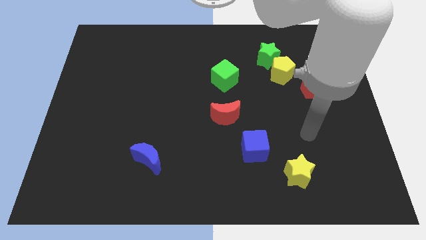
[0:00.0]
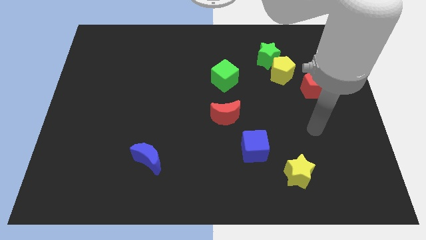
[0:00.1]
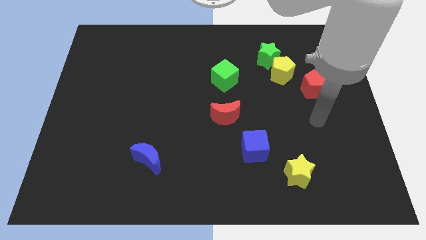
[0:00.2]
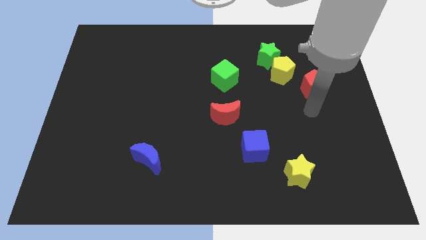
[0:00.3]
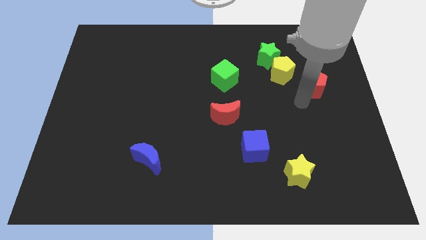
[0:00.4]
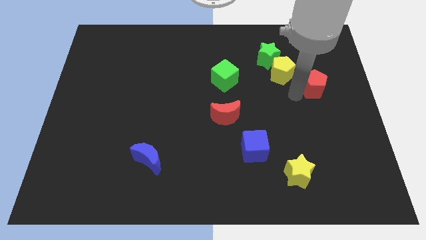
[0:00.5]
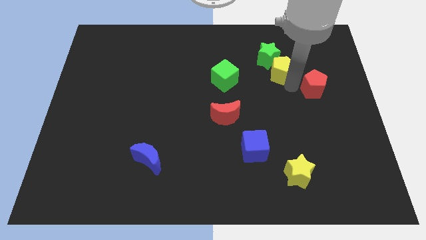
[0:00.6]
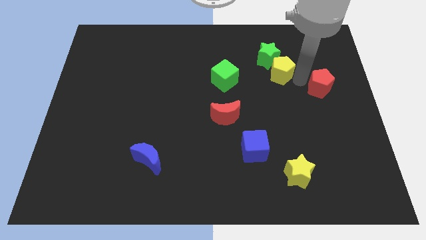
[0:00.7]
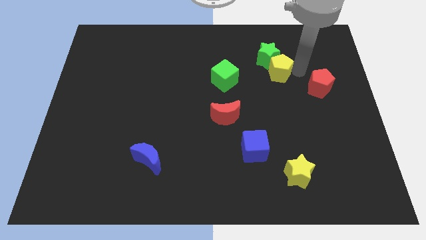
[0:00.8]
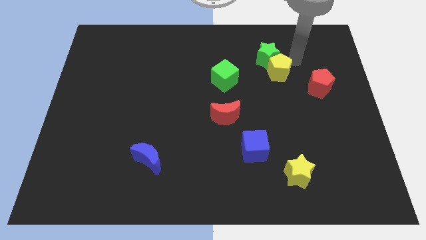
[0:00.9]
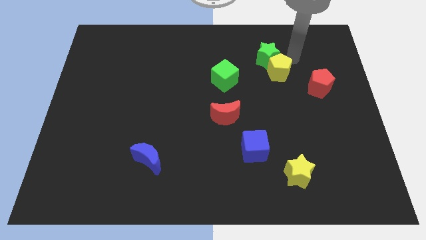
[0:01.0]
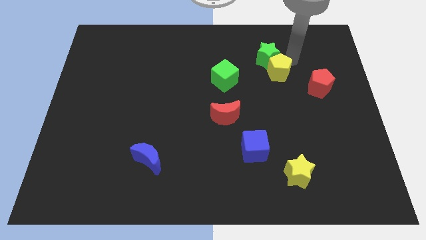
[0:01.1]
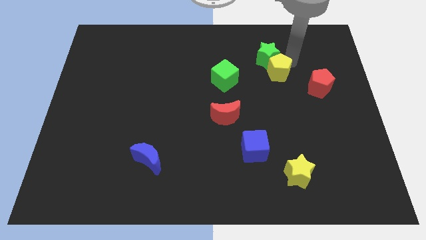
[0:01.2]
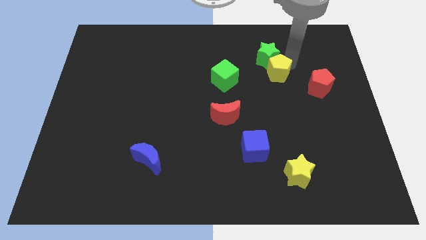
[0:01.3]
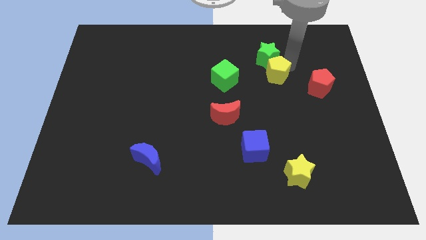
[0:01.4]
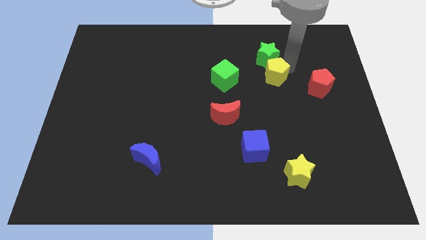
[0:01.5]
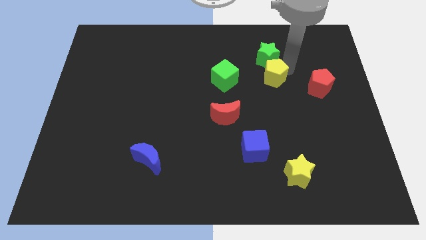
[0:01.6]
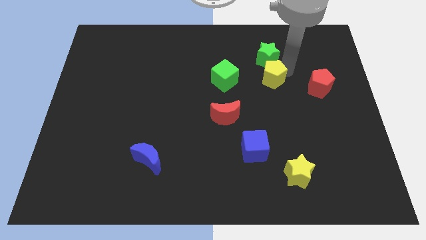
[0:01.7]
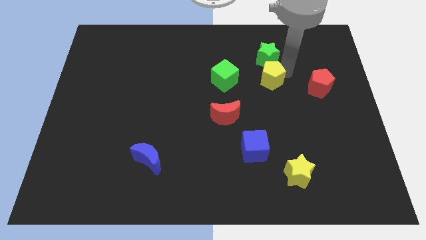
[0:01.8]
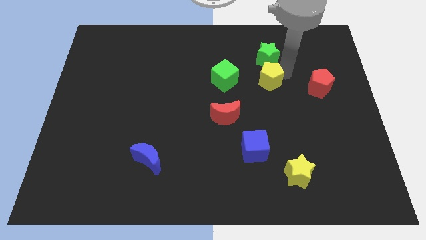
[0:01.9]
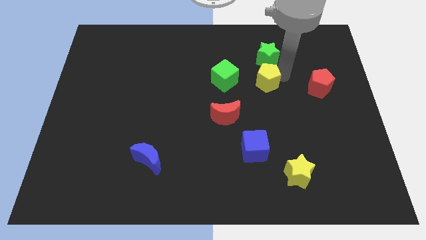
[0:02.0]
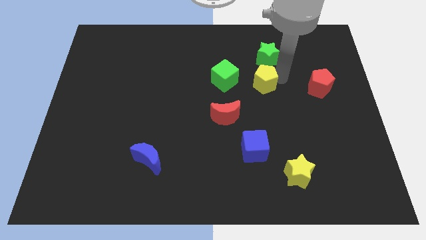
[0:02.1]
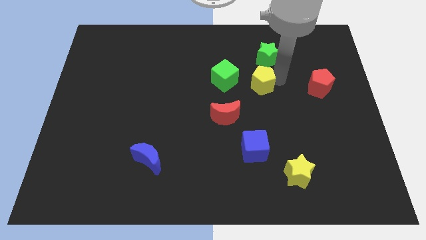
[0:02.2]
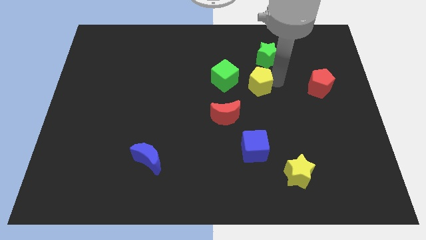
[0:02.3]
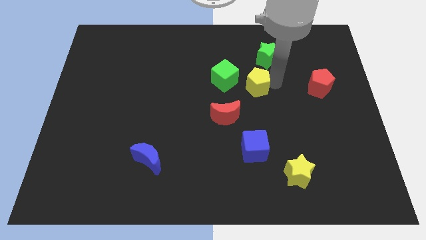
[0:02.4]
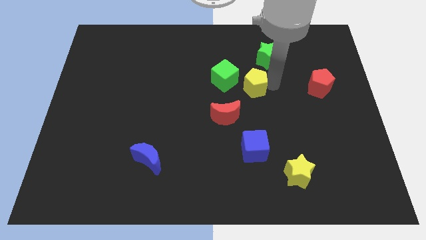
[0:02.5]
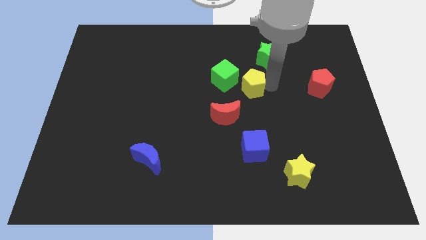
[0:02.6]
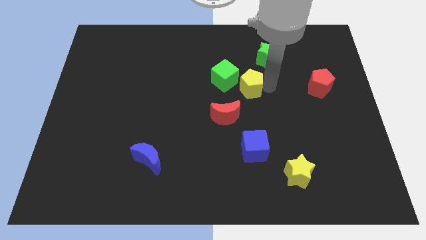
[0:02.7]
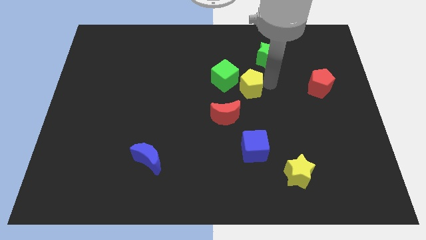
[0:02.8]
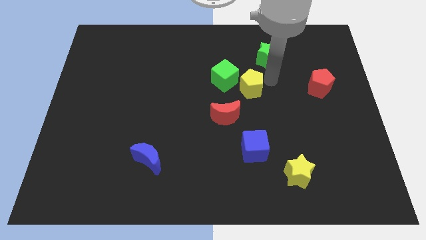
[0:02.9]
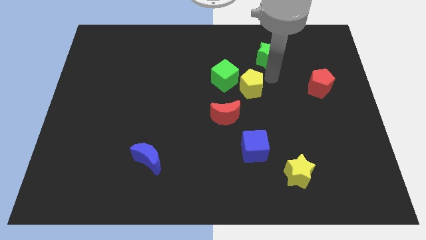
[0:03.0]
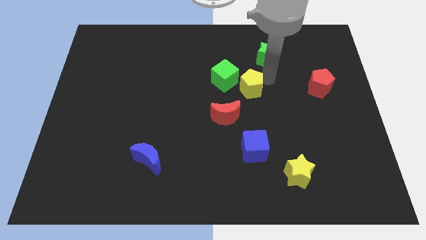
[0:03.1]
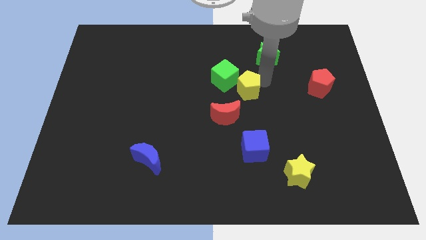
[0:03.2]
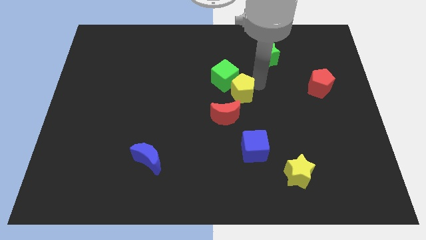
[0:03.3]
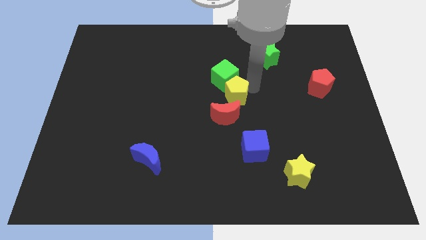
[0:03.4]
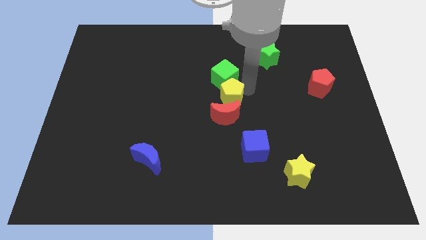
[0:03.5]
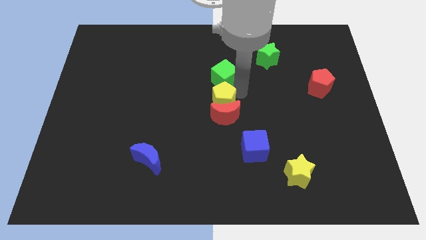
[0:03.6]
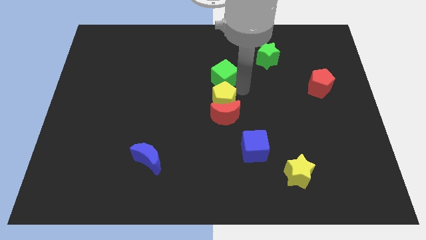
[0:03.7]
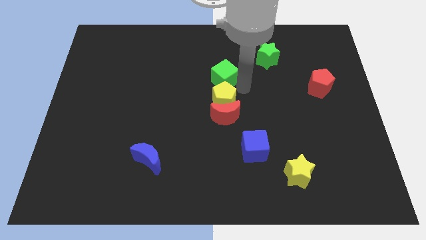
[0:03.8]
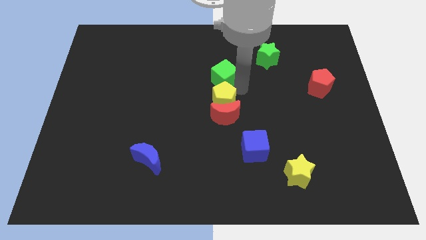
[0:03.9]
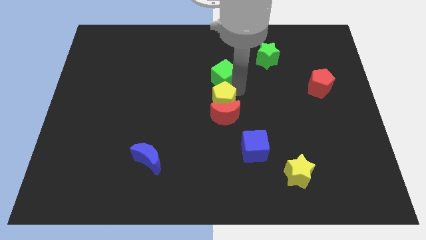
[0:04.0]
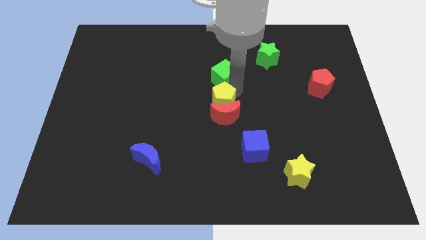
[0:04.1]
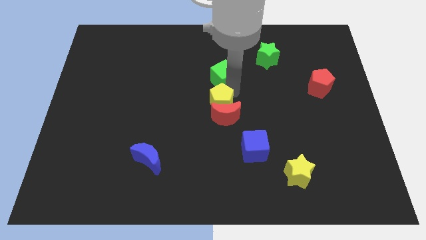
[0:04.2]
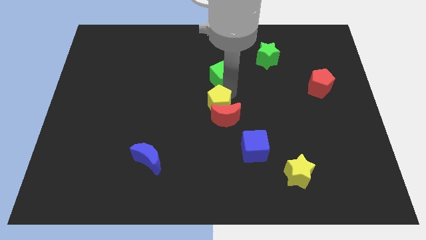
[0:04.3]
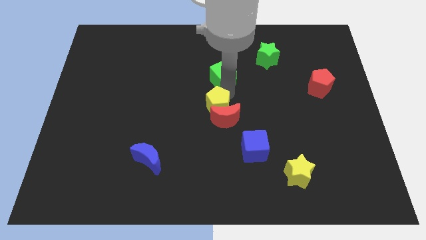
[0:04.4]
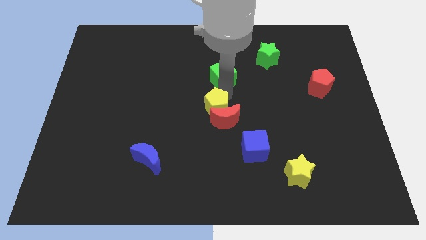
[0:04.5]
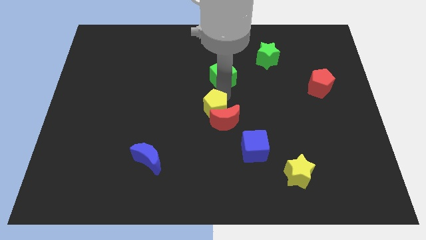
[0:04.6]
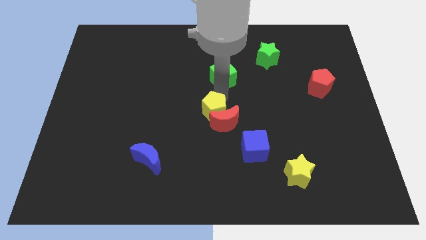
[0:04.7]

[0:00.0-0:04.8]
push the yellow pentagon down and left diagonally

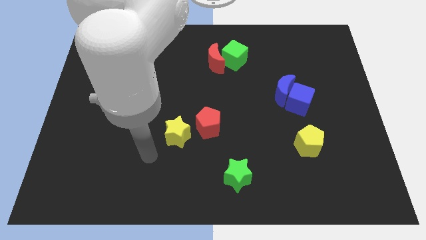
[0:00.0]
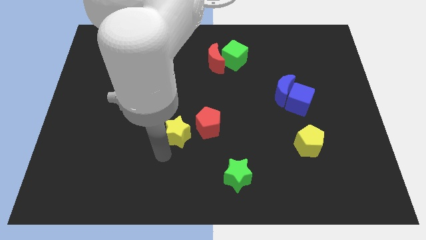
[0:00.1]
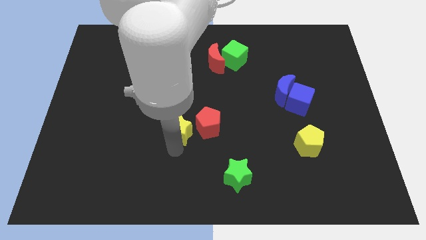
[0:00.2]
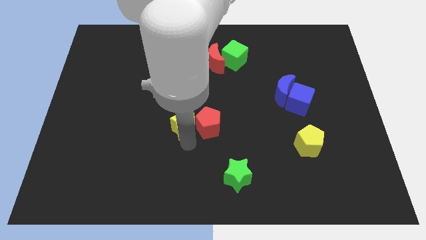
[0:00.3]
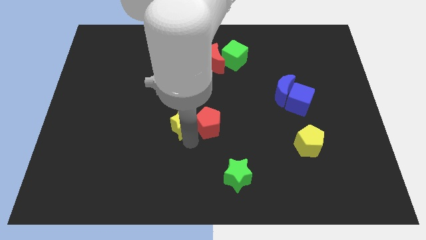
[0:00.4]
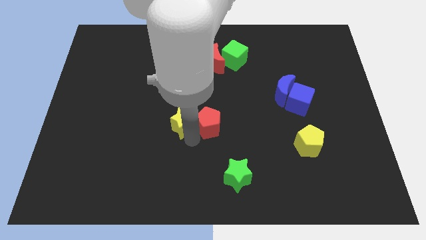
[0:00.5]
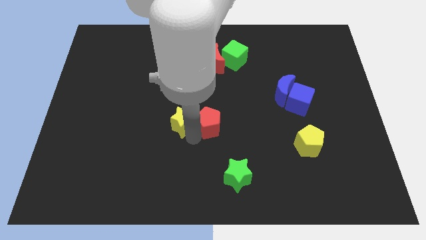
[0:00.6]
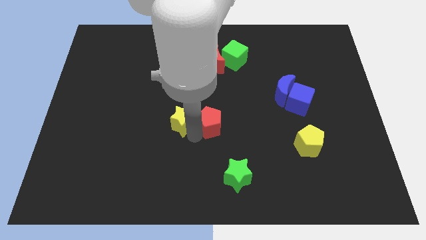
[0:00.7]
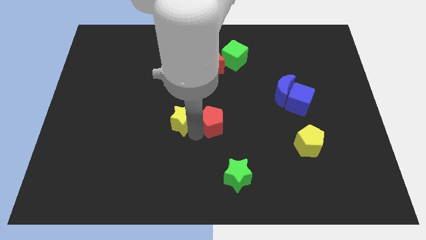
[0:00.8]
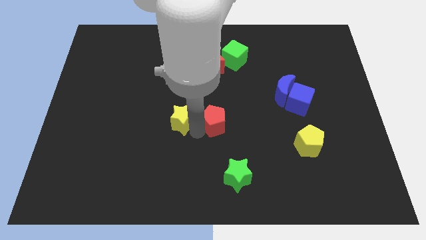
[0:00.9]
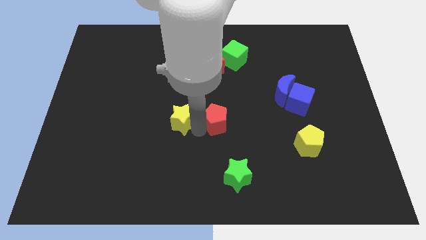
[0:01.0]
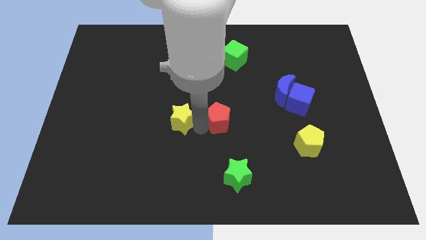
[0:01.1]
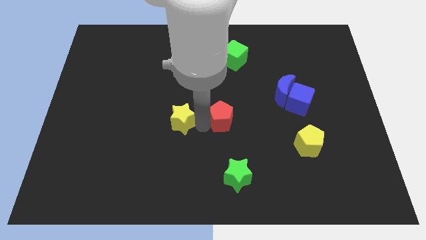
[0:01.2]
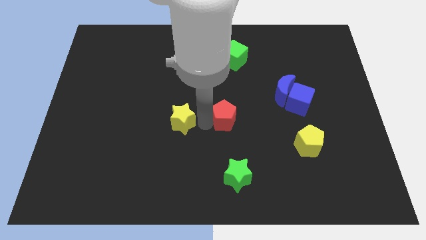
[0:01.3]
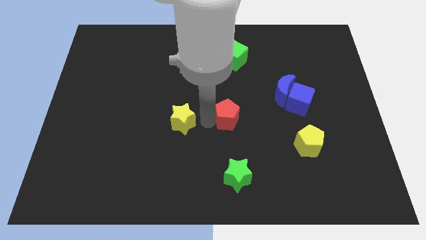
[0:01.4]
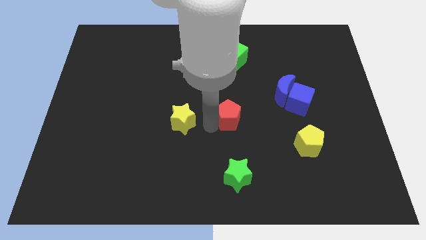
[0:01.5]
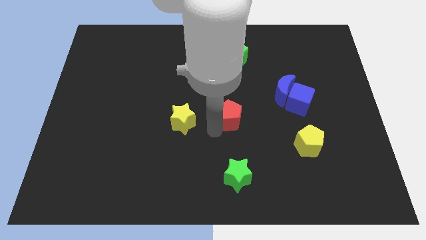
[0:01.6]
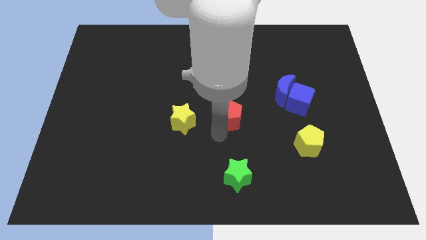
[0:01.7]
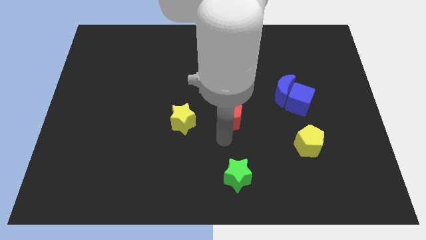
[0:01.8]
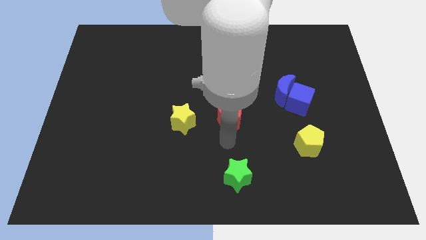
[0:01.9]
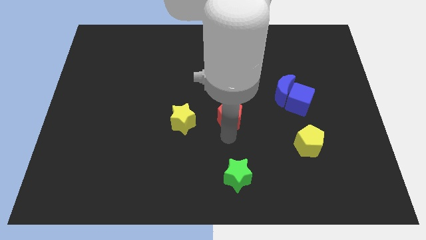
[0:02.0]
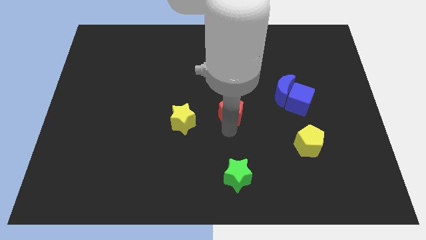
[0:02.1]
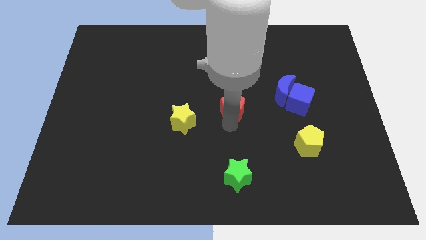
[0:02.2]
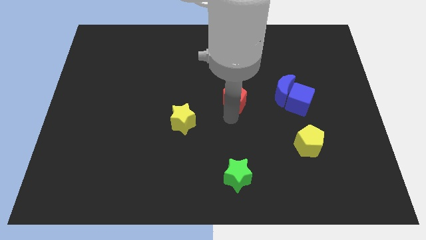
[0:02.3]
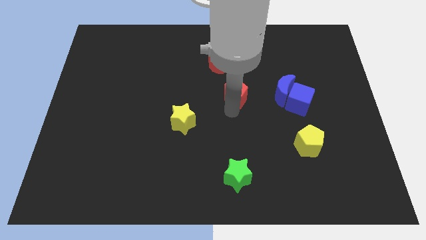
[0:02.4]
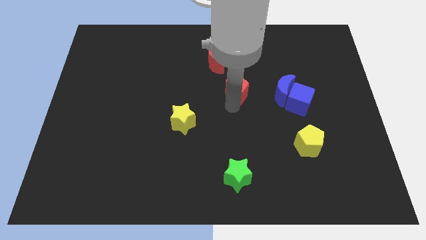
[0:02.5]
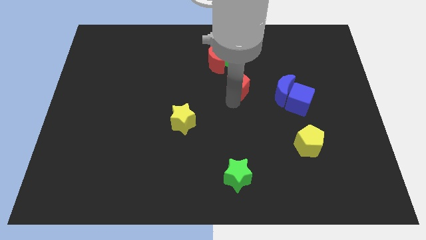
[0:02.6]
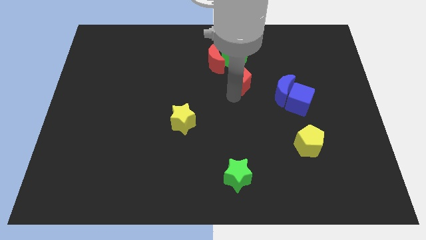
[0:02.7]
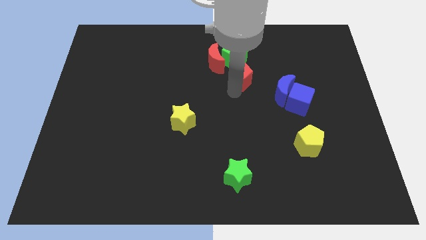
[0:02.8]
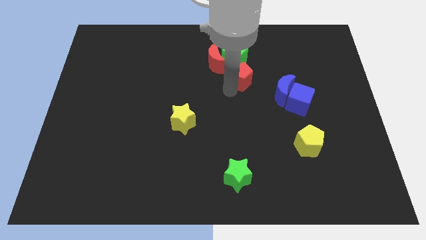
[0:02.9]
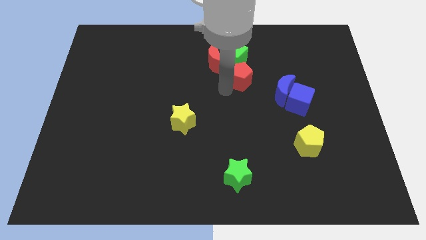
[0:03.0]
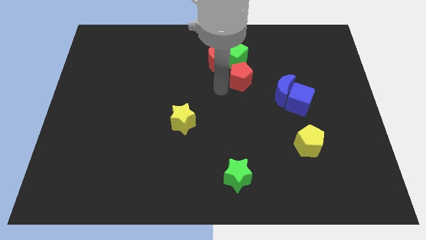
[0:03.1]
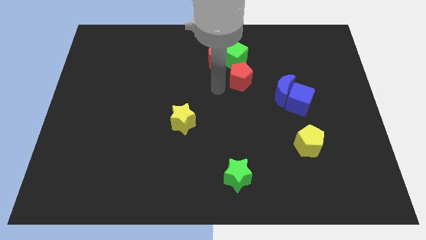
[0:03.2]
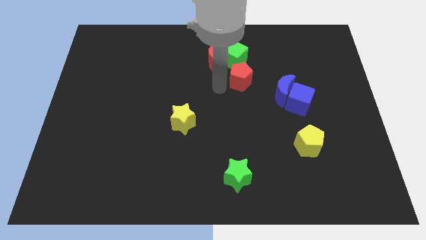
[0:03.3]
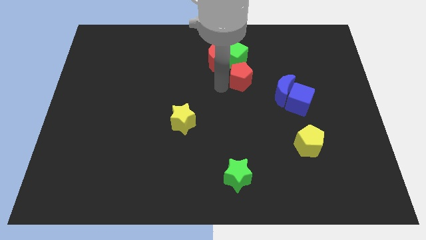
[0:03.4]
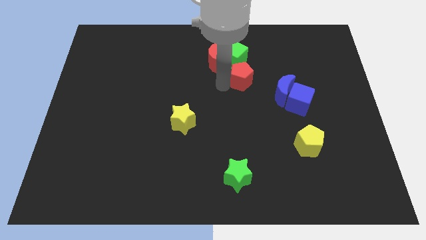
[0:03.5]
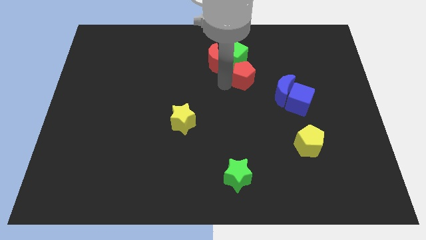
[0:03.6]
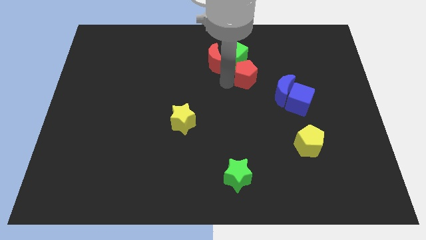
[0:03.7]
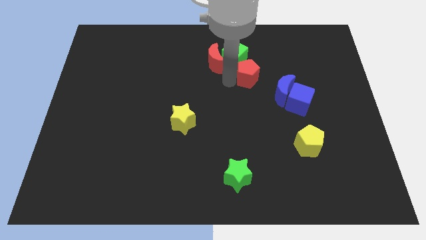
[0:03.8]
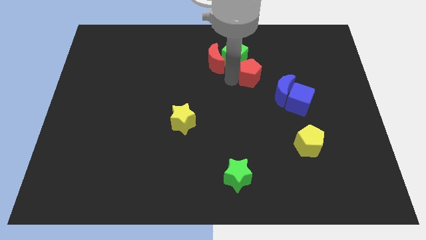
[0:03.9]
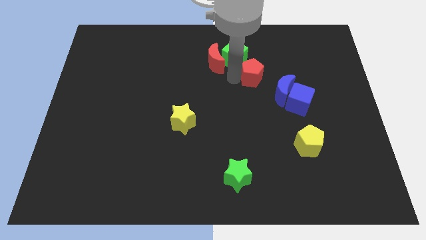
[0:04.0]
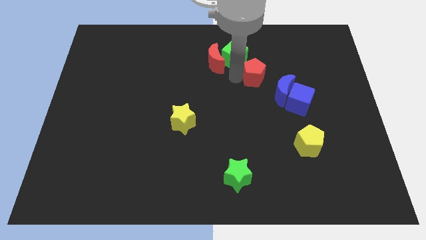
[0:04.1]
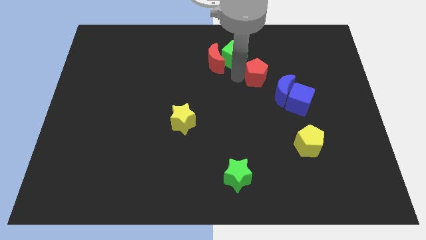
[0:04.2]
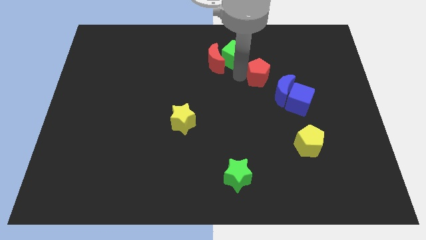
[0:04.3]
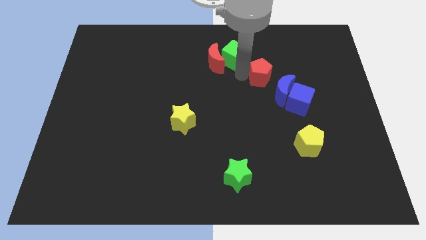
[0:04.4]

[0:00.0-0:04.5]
slide the red pentagon up and then to the right
